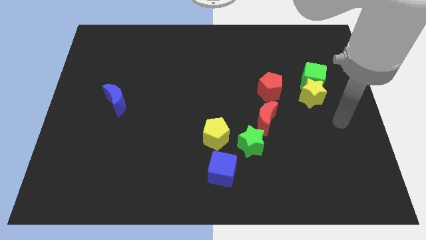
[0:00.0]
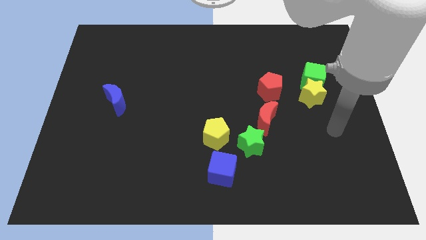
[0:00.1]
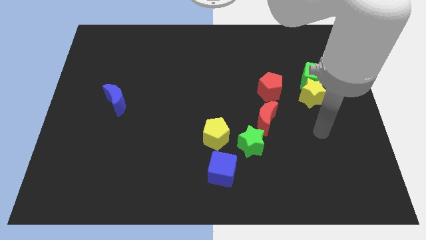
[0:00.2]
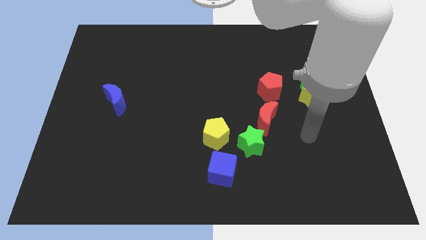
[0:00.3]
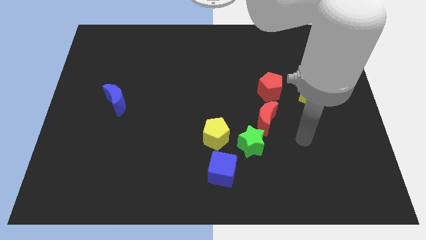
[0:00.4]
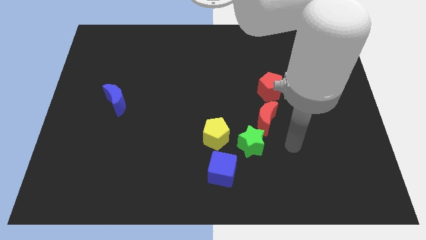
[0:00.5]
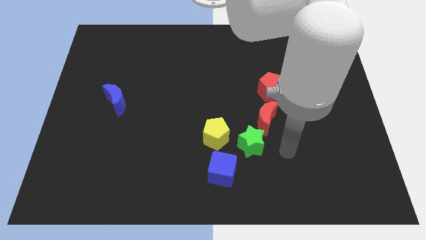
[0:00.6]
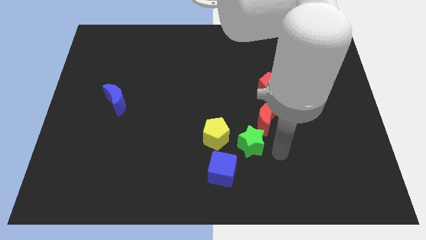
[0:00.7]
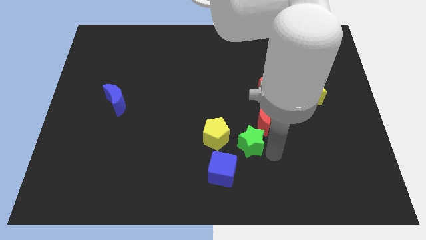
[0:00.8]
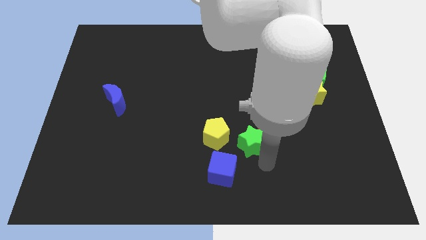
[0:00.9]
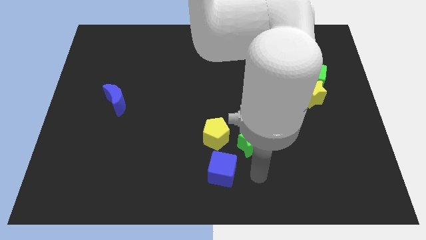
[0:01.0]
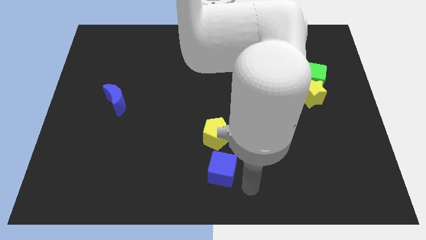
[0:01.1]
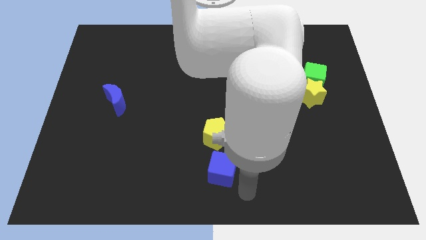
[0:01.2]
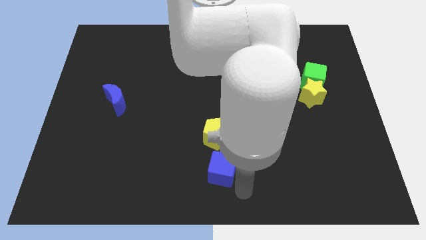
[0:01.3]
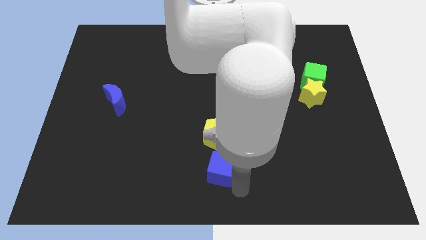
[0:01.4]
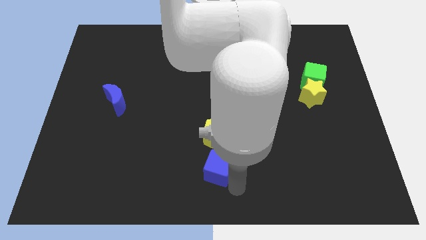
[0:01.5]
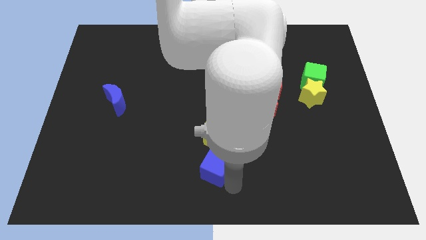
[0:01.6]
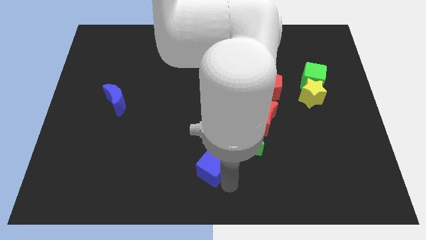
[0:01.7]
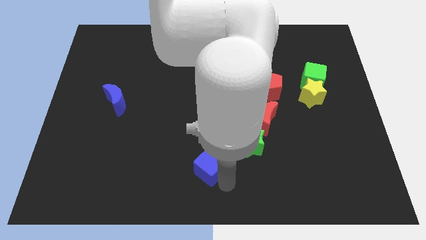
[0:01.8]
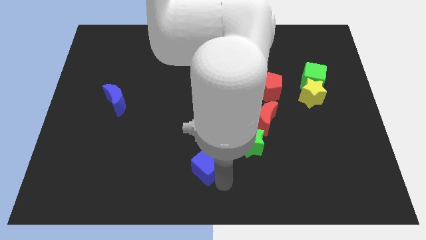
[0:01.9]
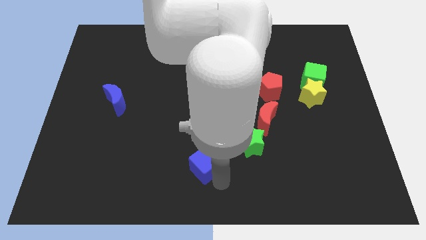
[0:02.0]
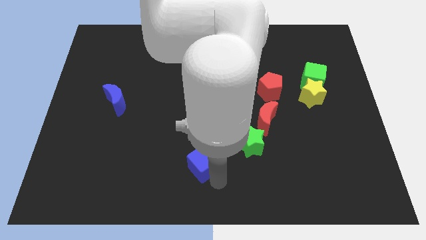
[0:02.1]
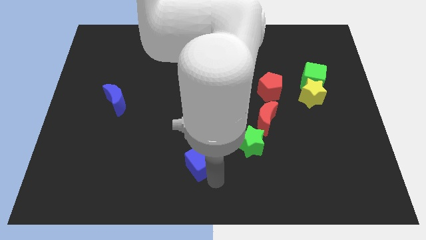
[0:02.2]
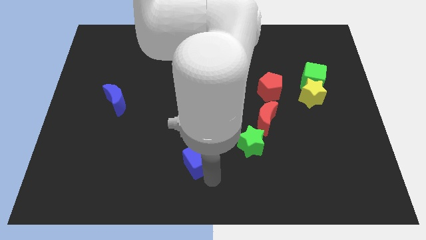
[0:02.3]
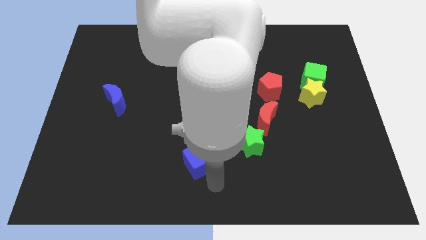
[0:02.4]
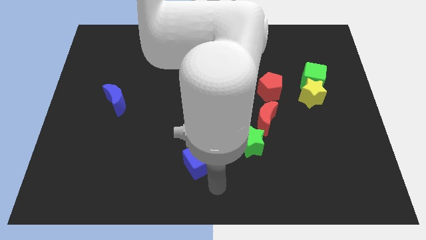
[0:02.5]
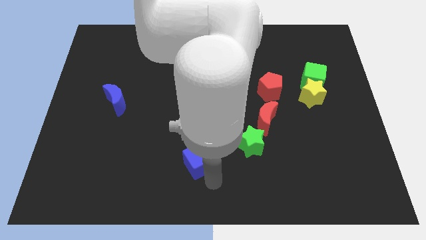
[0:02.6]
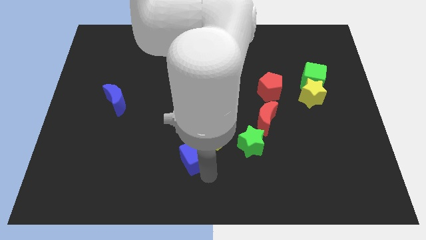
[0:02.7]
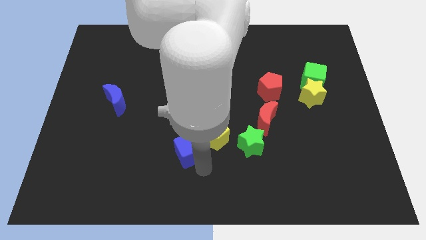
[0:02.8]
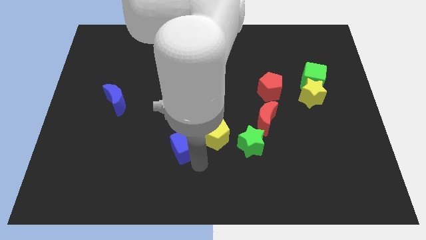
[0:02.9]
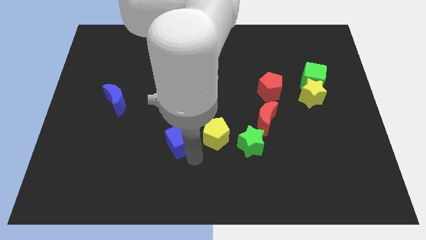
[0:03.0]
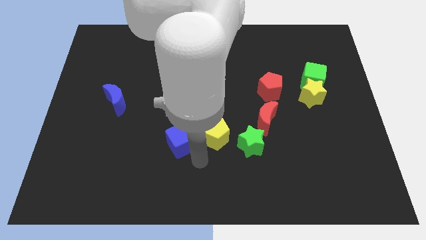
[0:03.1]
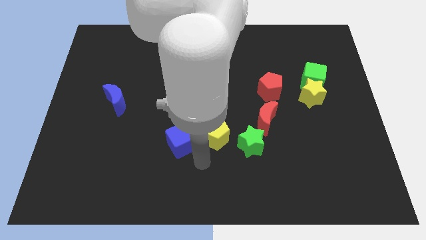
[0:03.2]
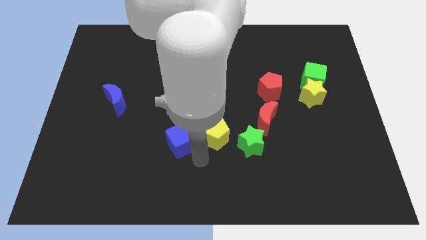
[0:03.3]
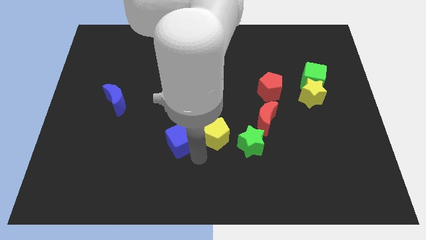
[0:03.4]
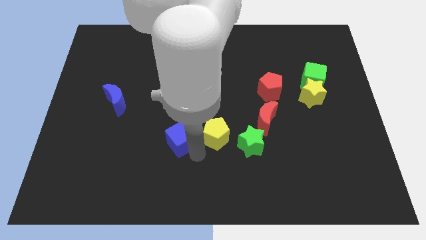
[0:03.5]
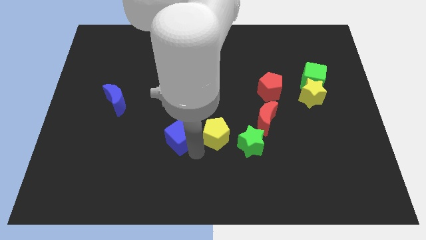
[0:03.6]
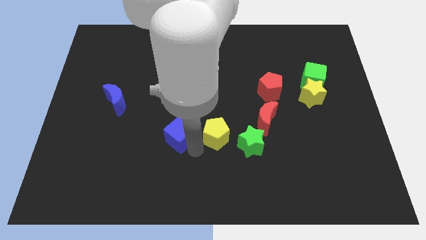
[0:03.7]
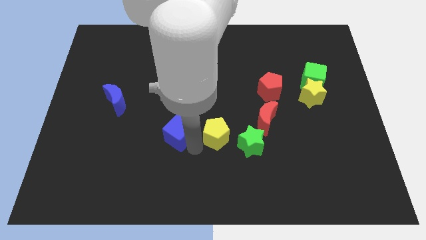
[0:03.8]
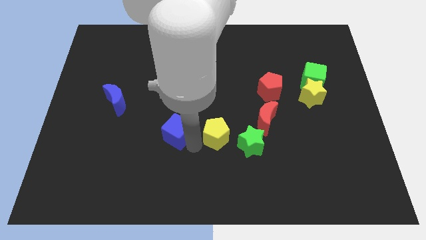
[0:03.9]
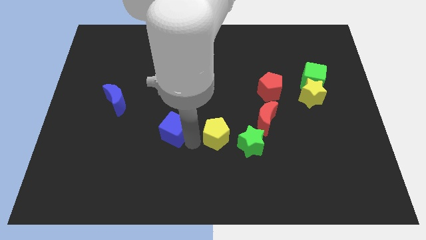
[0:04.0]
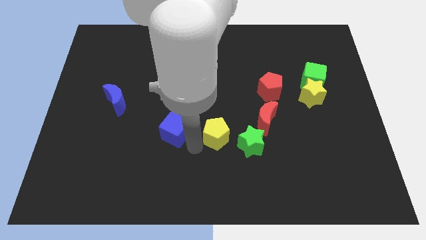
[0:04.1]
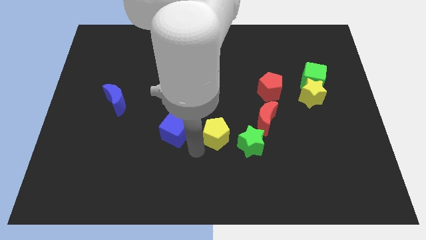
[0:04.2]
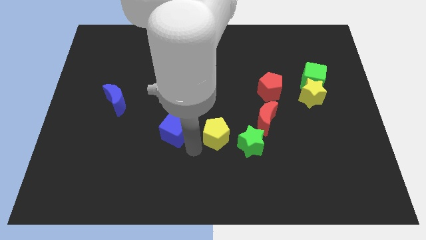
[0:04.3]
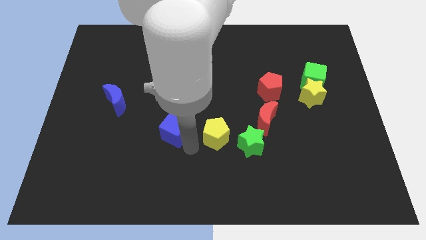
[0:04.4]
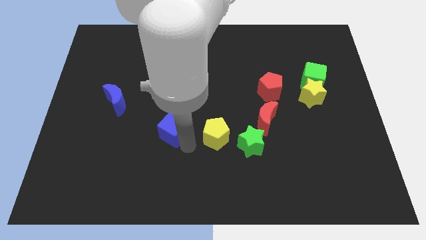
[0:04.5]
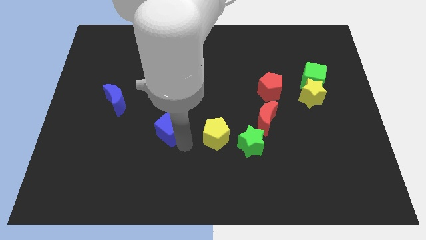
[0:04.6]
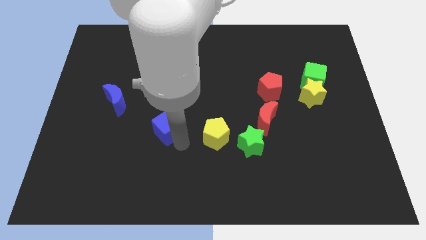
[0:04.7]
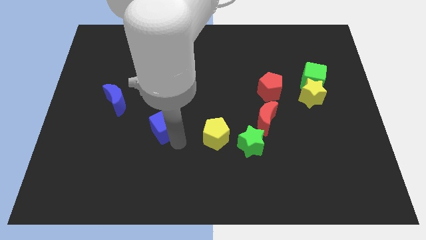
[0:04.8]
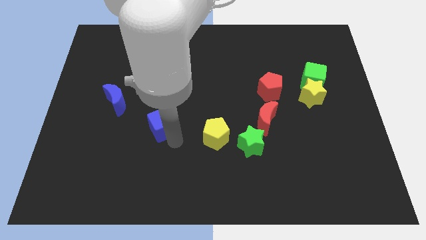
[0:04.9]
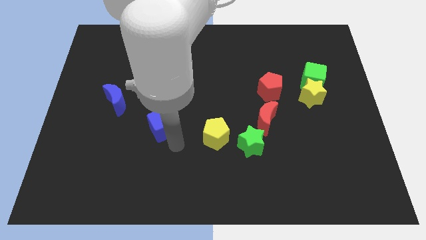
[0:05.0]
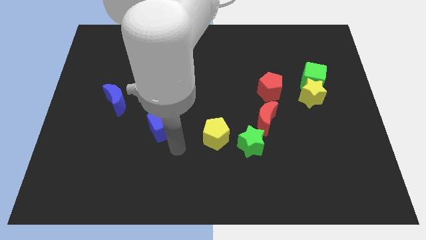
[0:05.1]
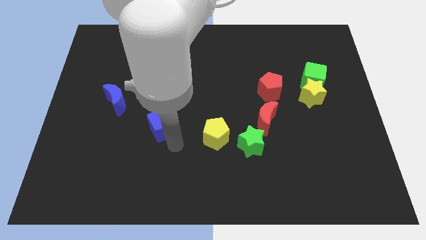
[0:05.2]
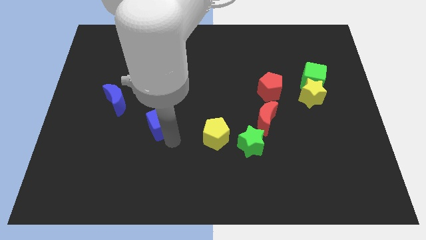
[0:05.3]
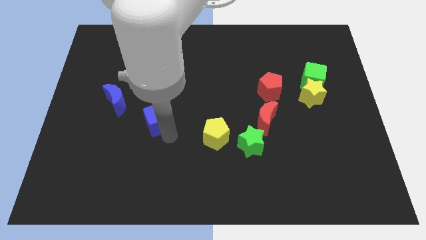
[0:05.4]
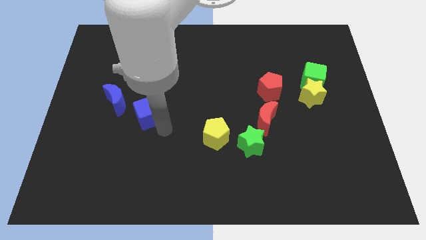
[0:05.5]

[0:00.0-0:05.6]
move the blue cube upwards and to the left

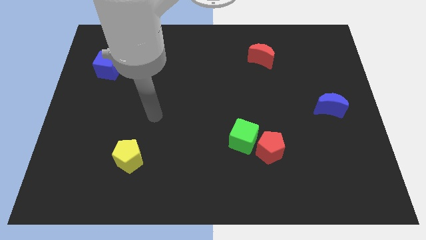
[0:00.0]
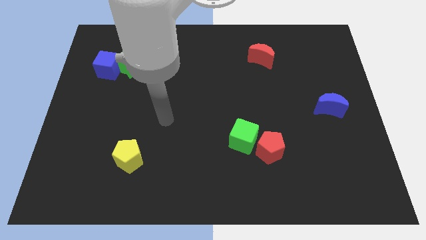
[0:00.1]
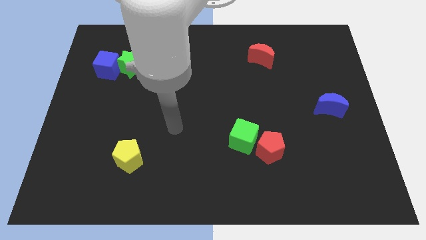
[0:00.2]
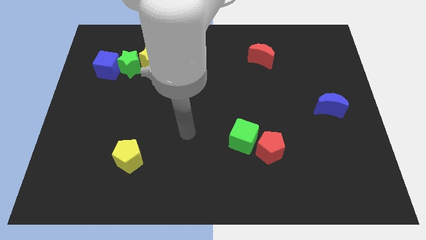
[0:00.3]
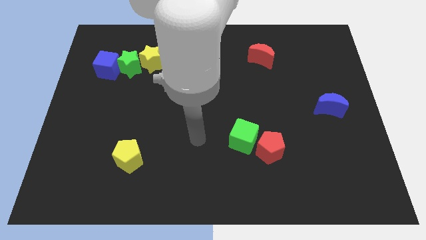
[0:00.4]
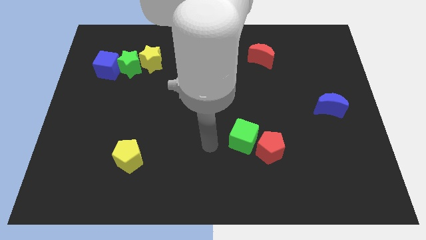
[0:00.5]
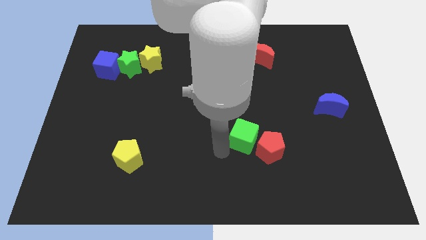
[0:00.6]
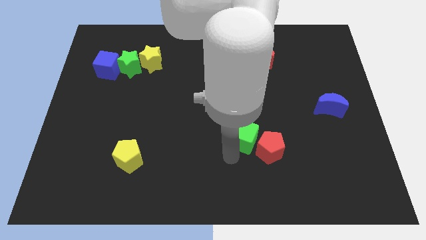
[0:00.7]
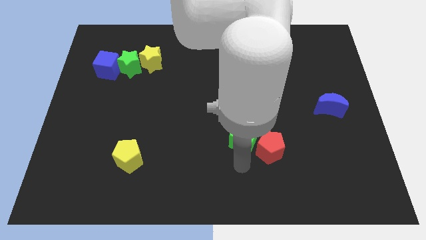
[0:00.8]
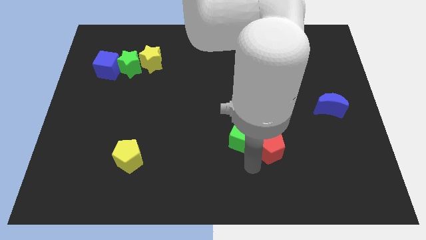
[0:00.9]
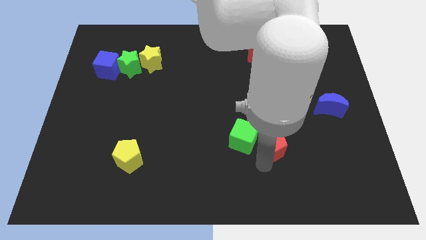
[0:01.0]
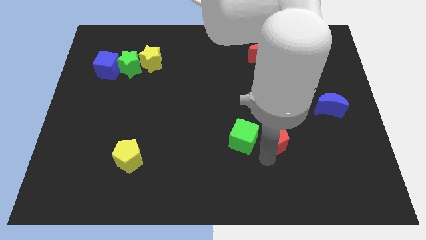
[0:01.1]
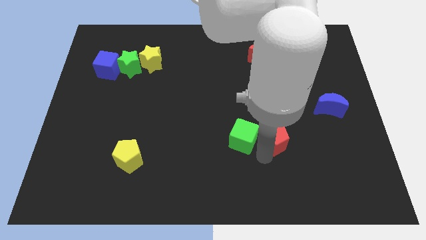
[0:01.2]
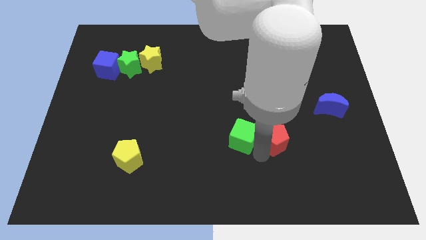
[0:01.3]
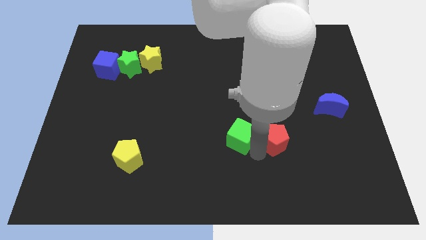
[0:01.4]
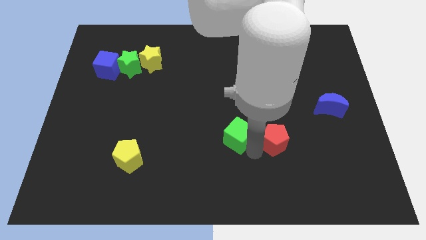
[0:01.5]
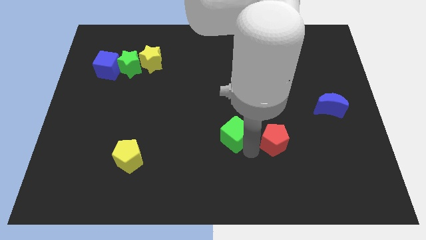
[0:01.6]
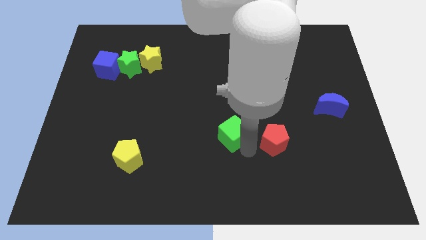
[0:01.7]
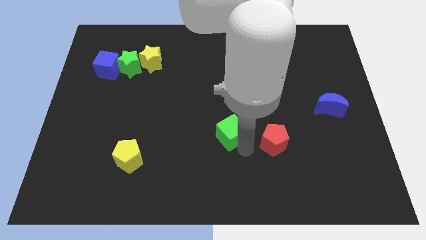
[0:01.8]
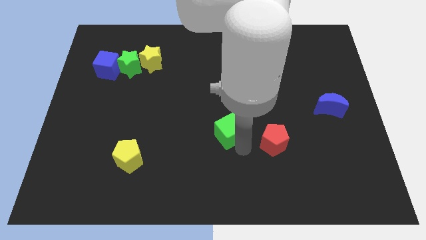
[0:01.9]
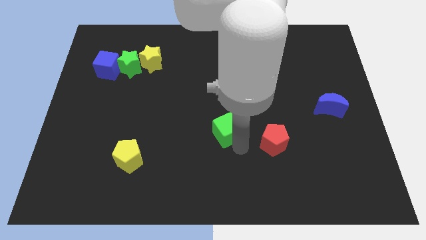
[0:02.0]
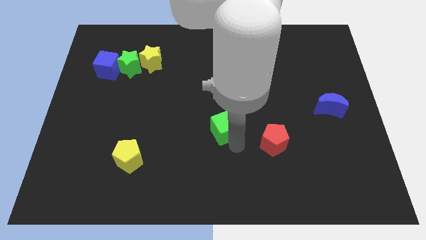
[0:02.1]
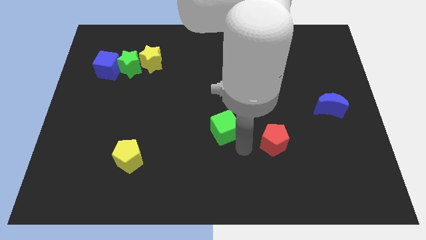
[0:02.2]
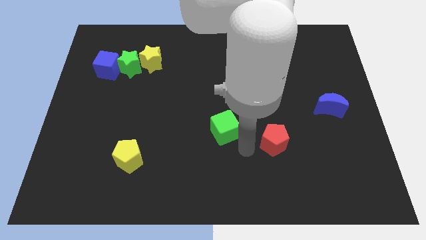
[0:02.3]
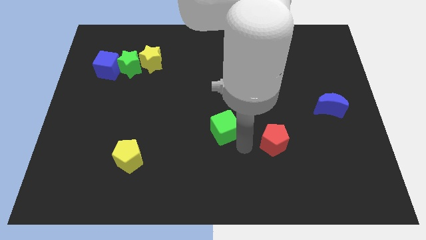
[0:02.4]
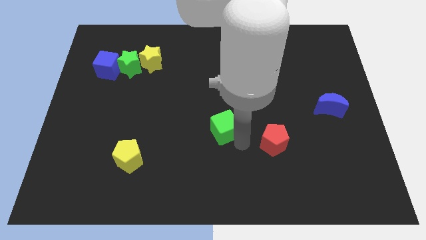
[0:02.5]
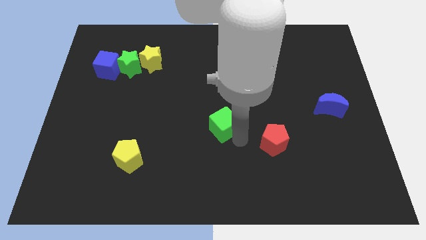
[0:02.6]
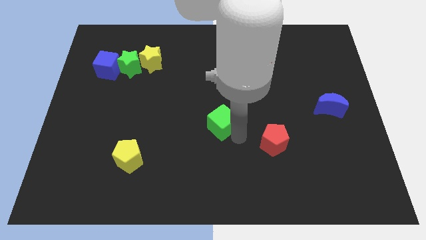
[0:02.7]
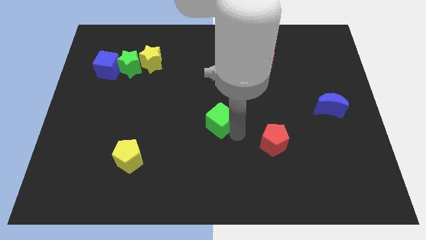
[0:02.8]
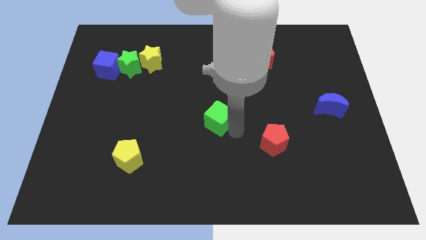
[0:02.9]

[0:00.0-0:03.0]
slide the green cube diagonally up and left somewhat
